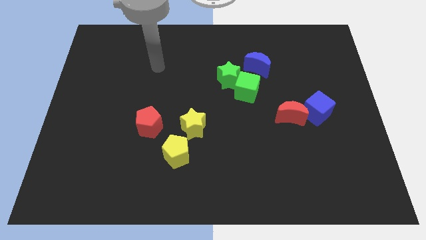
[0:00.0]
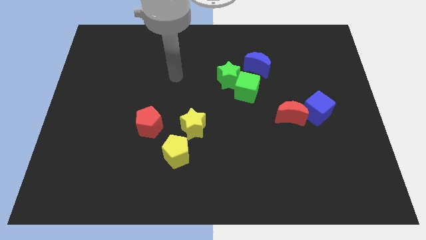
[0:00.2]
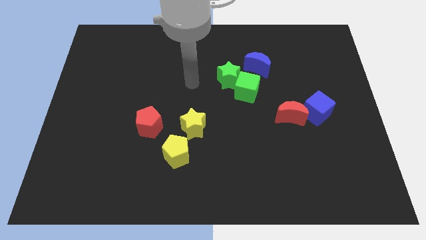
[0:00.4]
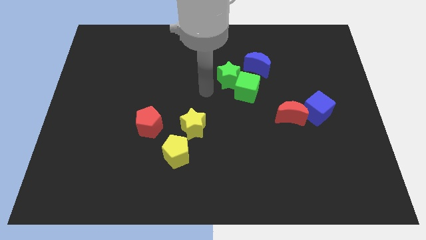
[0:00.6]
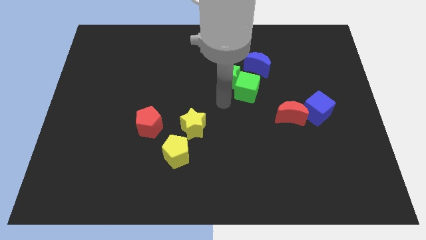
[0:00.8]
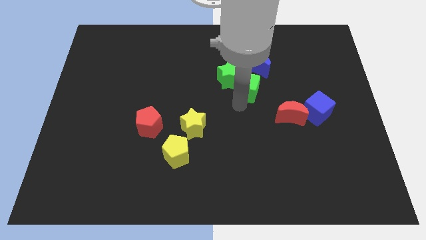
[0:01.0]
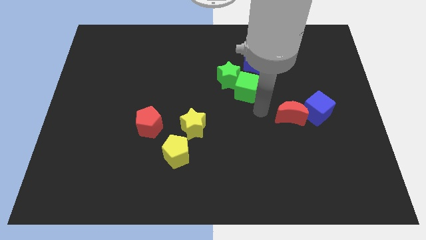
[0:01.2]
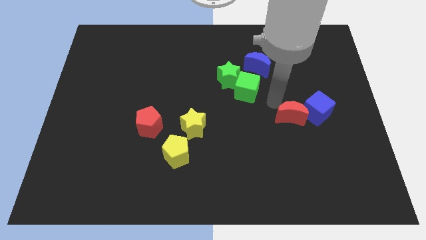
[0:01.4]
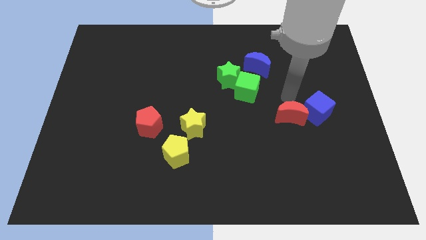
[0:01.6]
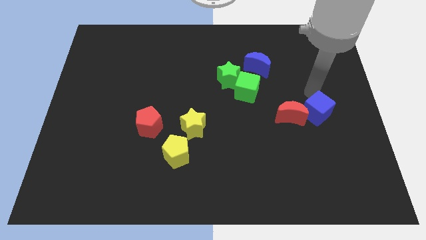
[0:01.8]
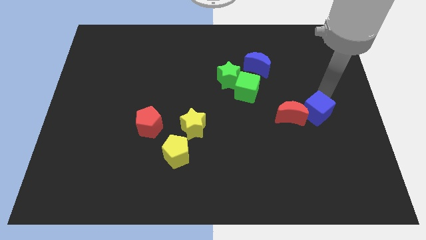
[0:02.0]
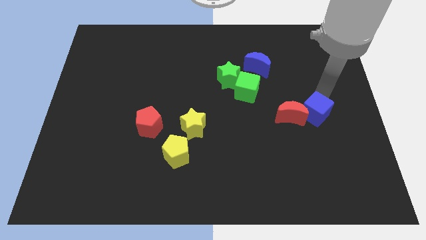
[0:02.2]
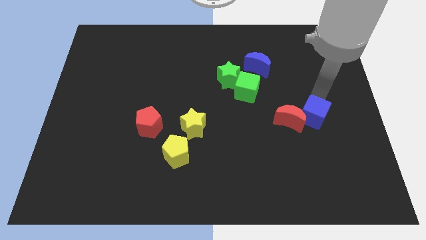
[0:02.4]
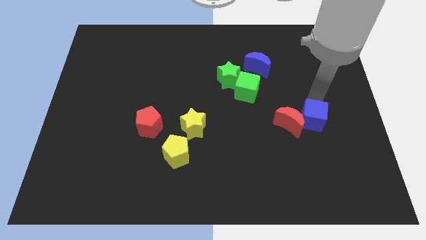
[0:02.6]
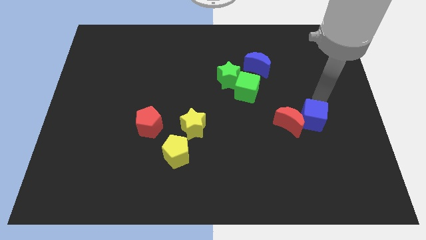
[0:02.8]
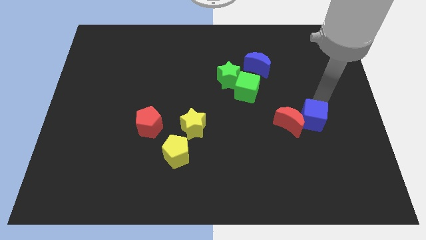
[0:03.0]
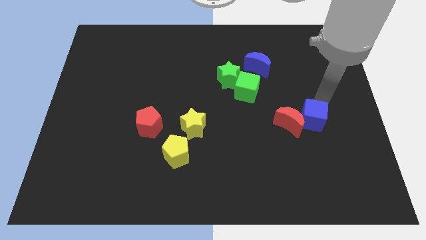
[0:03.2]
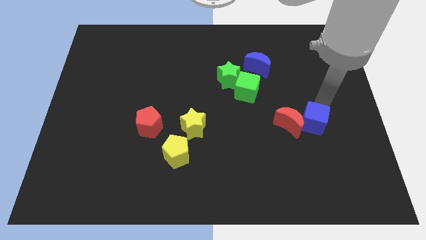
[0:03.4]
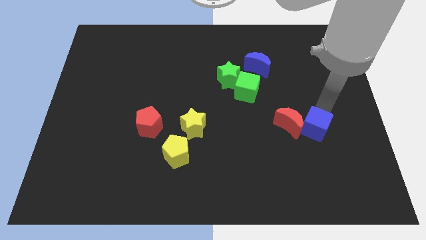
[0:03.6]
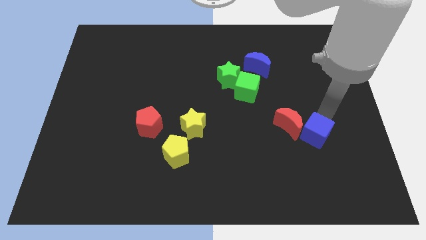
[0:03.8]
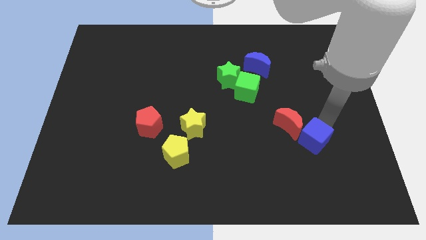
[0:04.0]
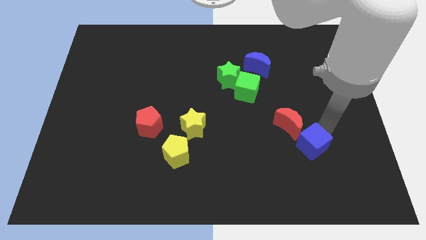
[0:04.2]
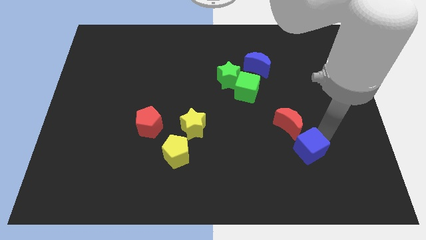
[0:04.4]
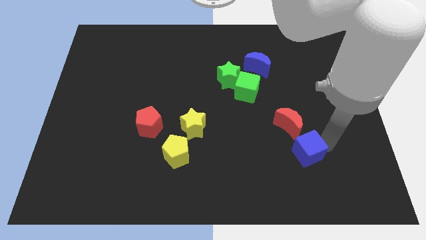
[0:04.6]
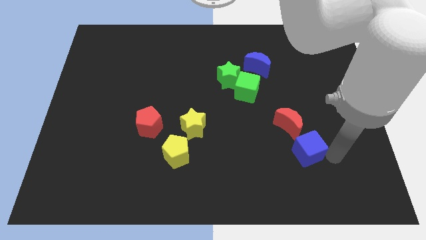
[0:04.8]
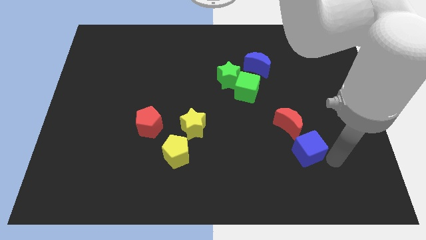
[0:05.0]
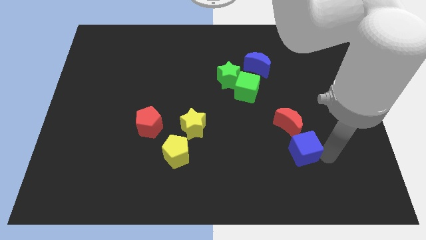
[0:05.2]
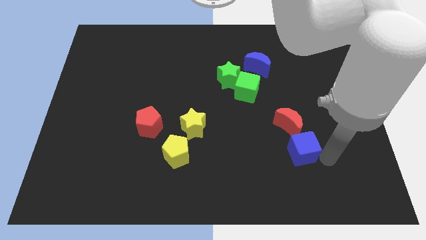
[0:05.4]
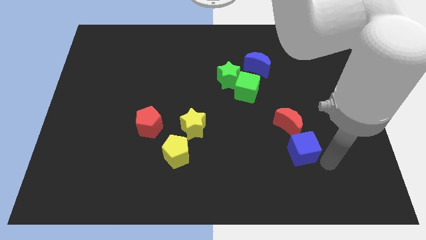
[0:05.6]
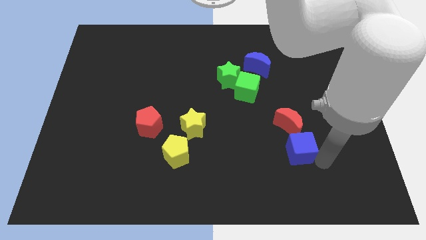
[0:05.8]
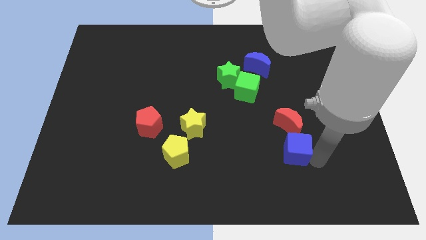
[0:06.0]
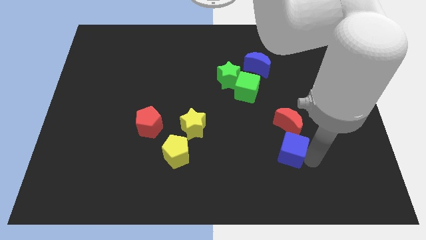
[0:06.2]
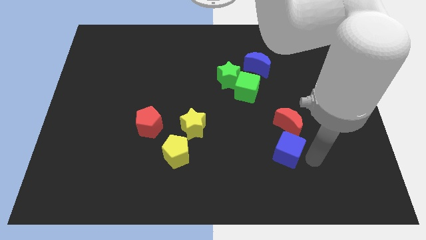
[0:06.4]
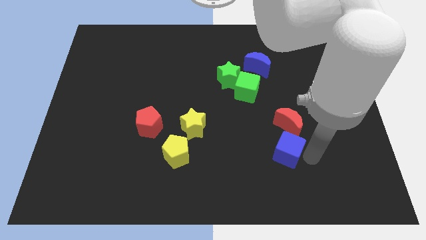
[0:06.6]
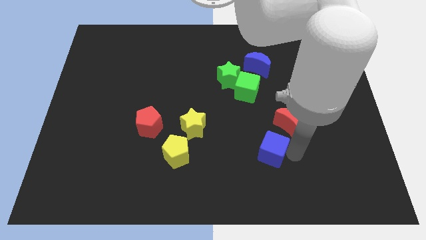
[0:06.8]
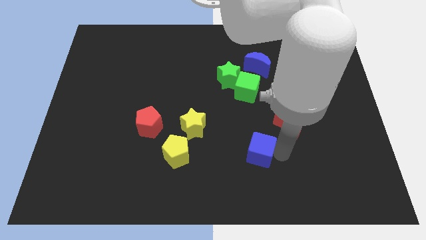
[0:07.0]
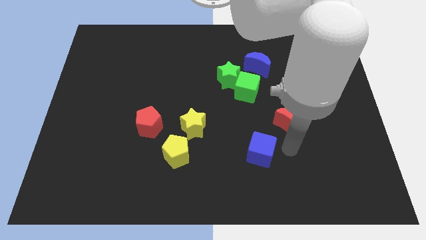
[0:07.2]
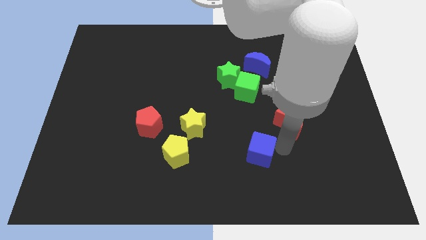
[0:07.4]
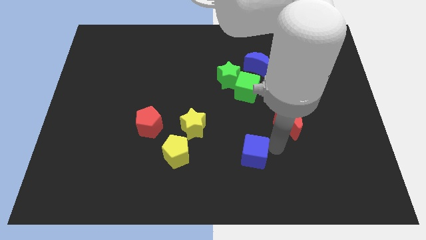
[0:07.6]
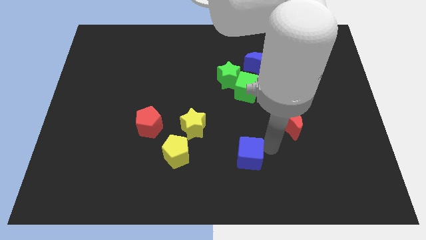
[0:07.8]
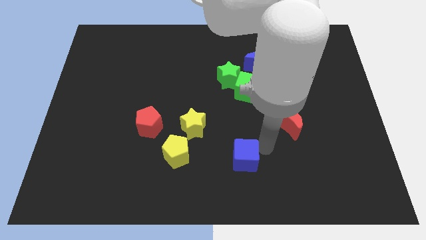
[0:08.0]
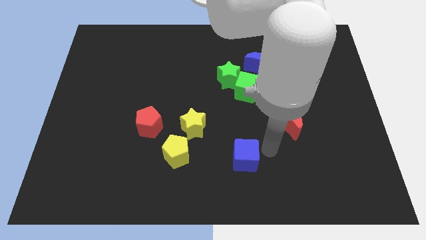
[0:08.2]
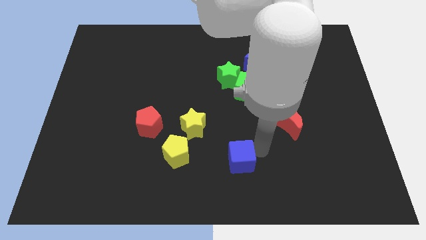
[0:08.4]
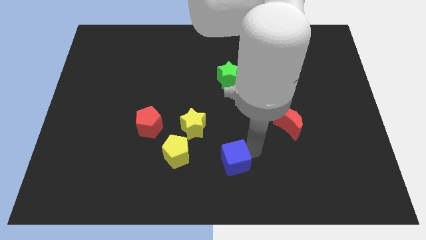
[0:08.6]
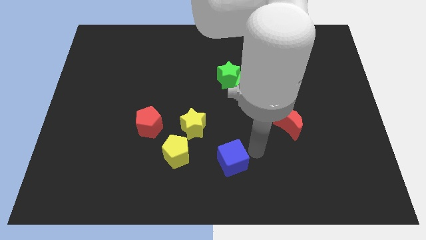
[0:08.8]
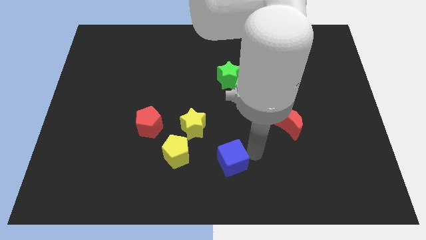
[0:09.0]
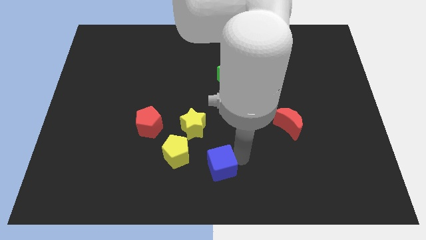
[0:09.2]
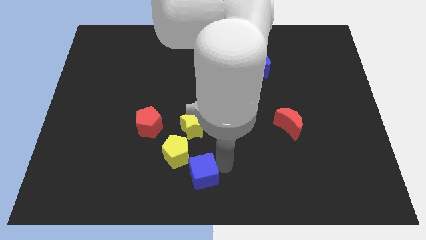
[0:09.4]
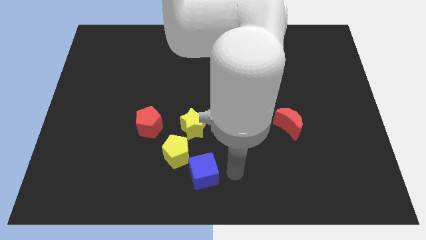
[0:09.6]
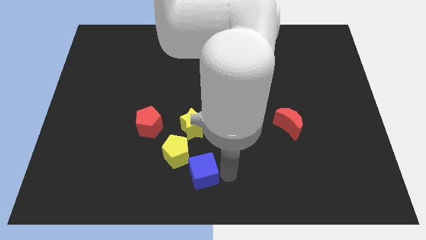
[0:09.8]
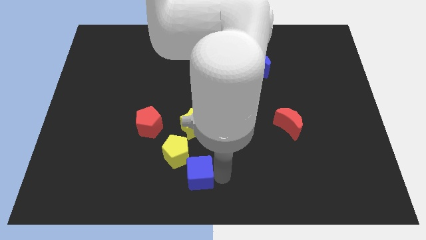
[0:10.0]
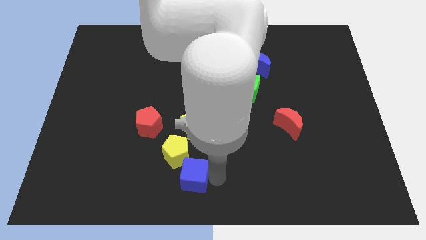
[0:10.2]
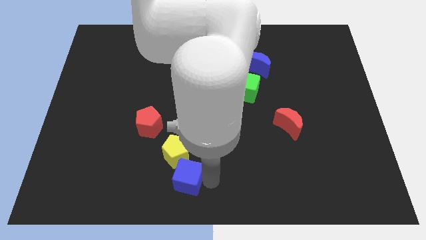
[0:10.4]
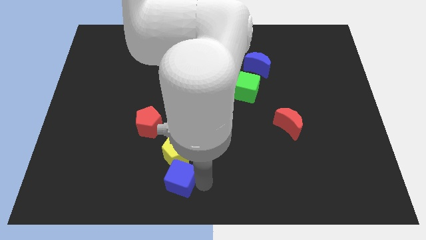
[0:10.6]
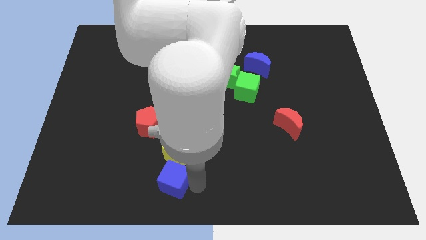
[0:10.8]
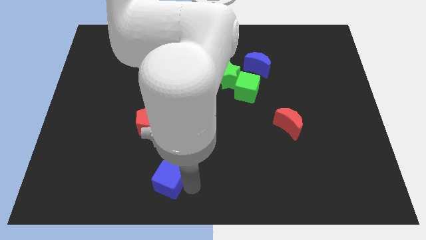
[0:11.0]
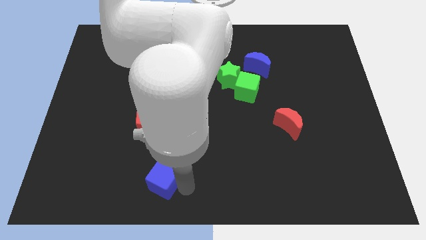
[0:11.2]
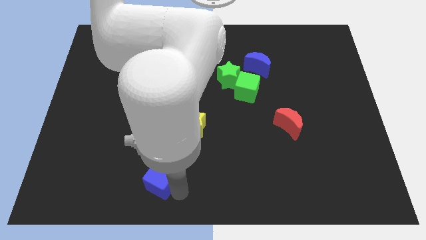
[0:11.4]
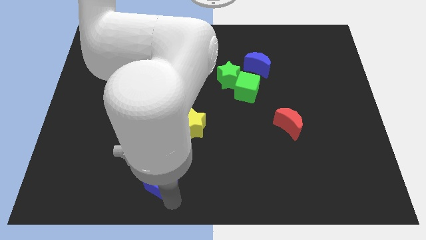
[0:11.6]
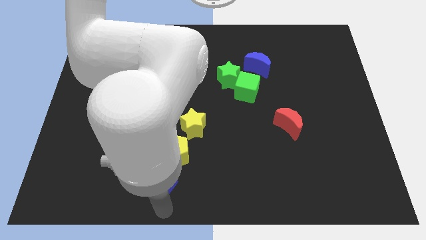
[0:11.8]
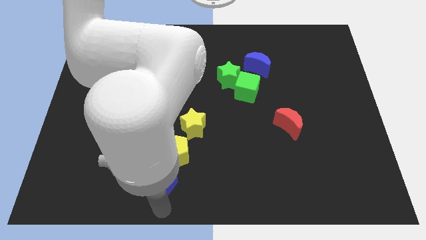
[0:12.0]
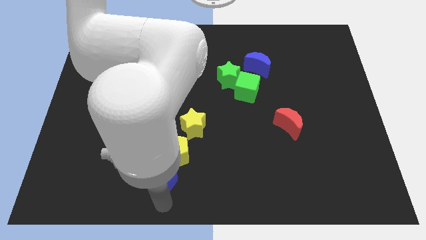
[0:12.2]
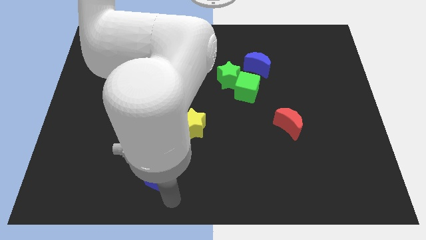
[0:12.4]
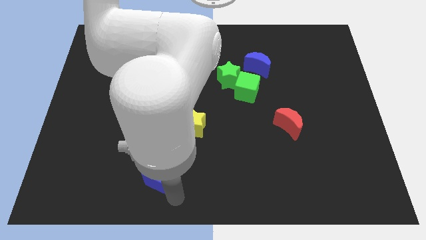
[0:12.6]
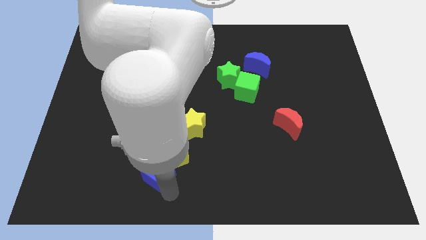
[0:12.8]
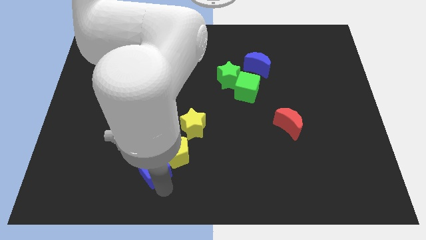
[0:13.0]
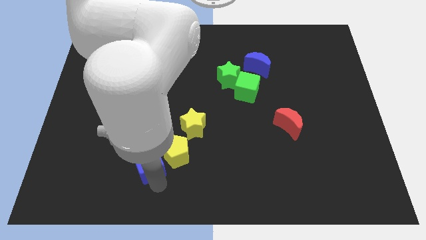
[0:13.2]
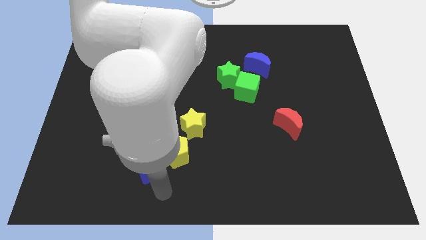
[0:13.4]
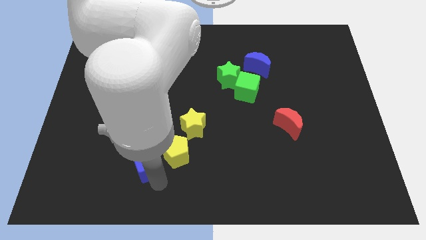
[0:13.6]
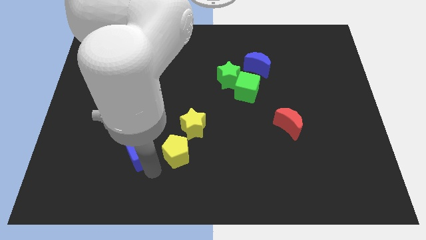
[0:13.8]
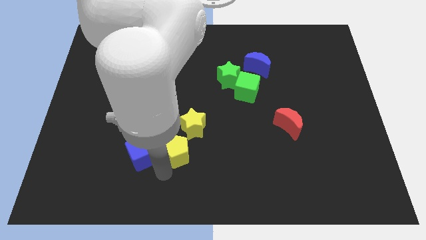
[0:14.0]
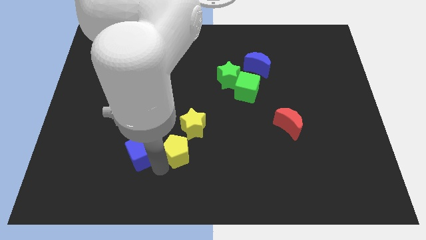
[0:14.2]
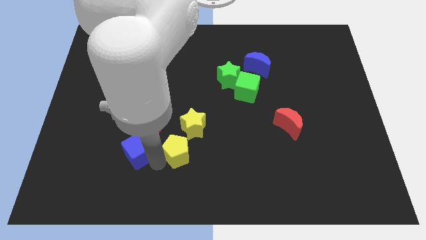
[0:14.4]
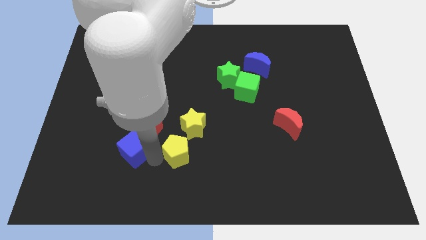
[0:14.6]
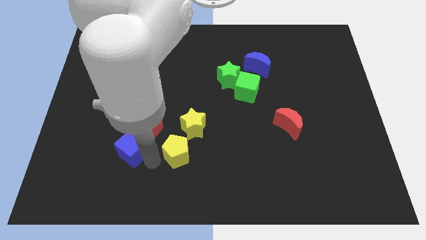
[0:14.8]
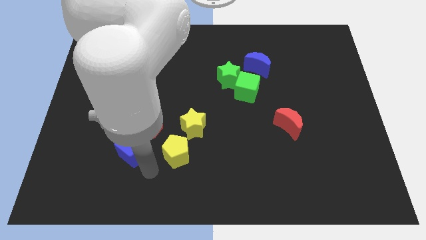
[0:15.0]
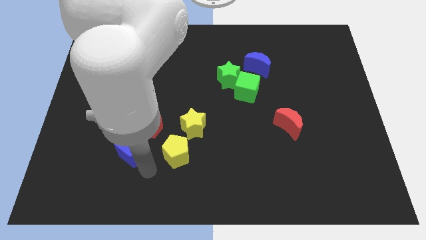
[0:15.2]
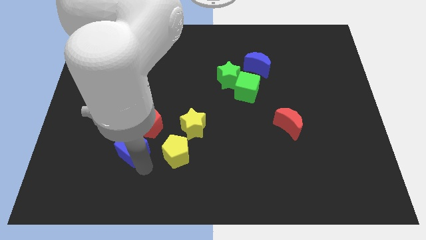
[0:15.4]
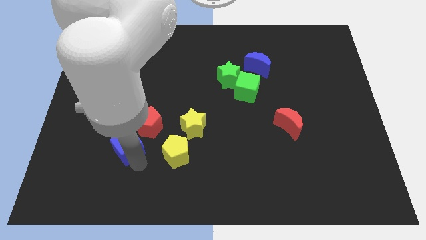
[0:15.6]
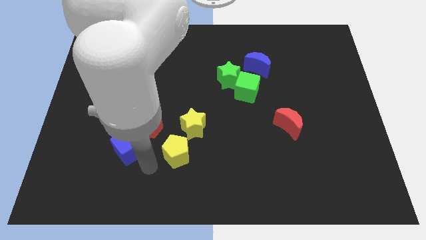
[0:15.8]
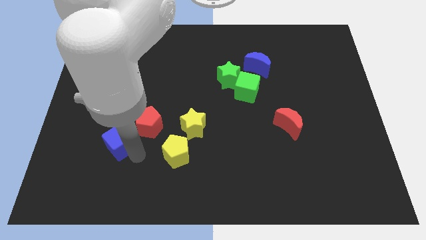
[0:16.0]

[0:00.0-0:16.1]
slide the blue cube just left of the red pentagon
